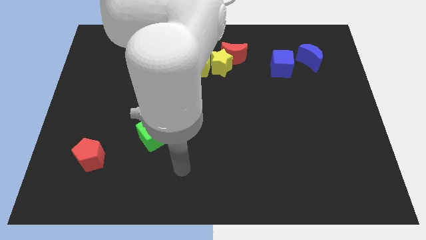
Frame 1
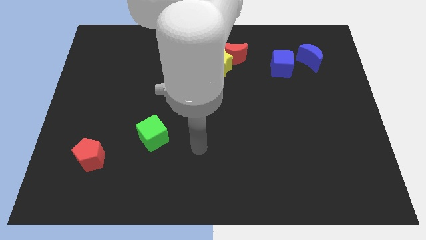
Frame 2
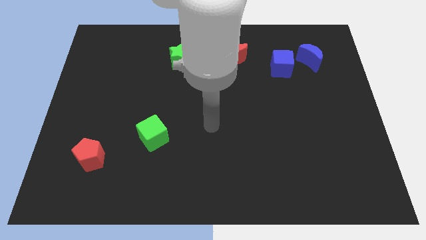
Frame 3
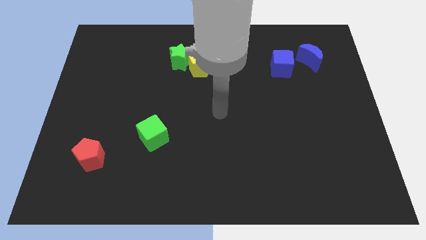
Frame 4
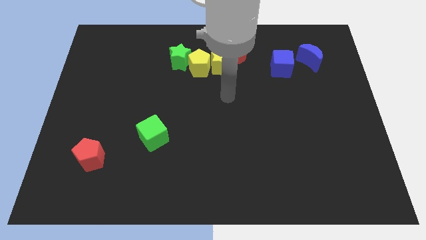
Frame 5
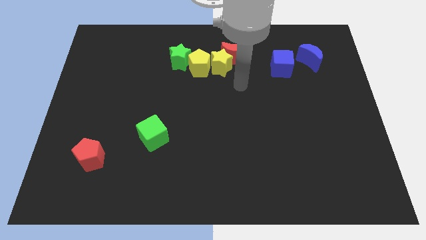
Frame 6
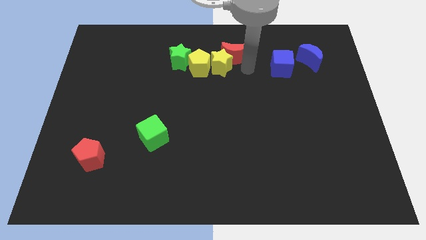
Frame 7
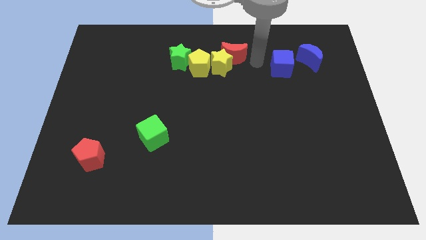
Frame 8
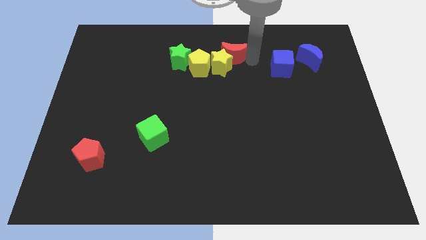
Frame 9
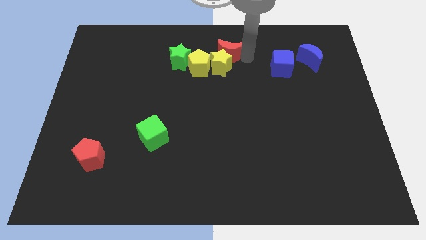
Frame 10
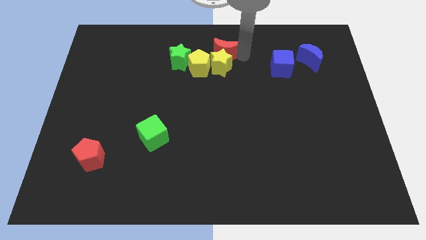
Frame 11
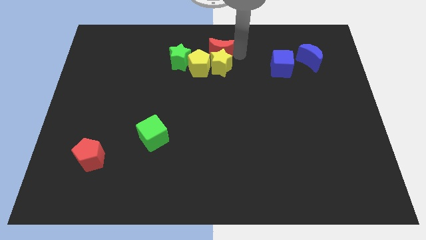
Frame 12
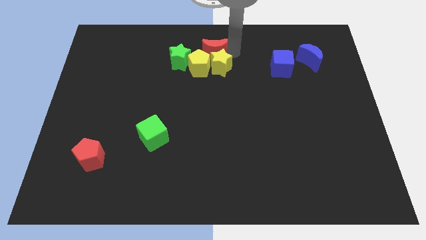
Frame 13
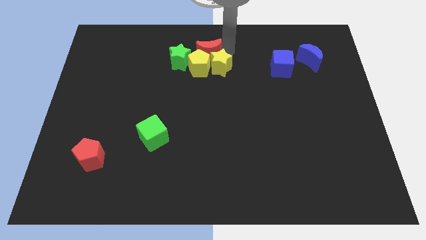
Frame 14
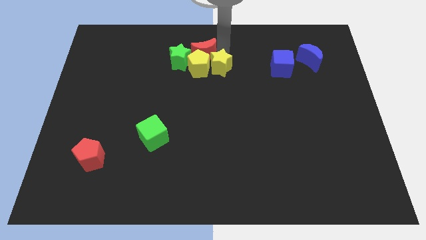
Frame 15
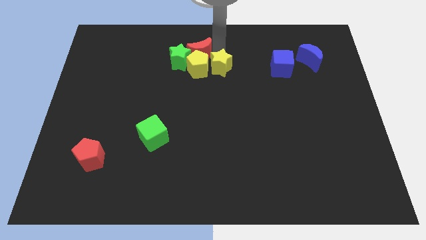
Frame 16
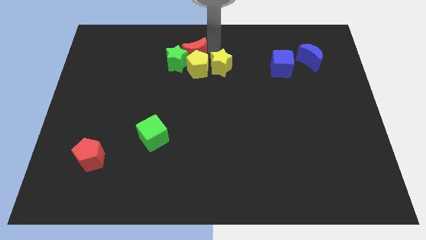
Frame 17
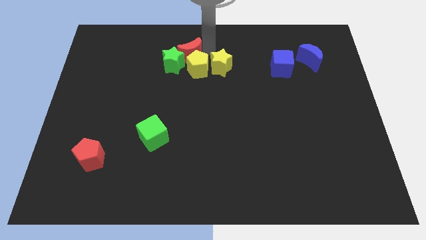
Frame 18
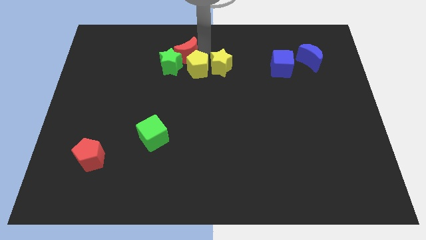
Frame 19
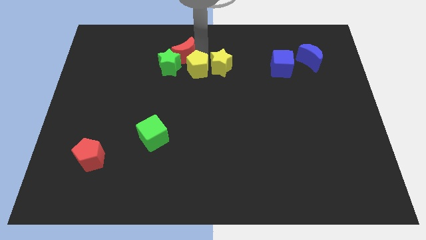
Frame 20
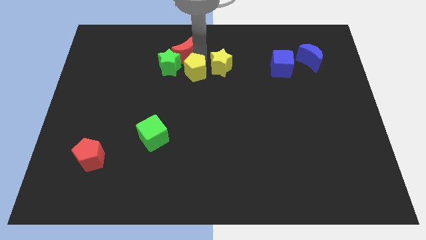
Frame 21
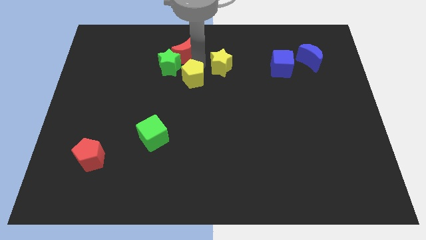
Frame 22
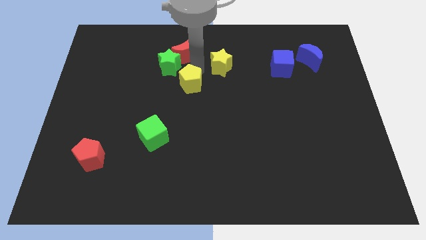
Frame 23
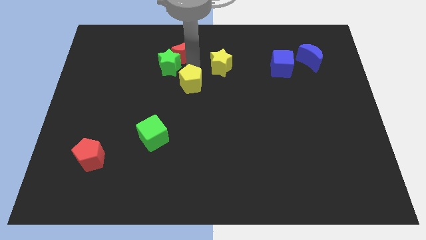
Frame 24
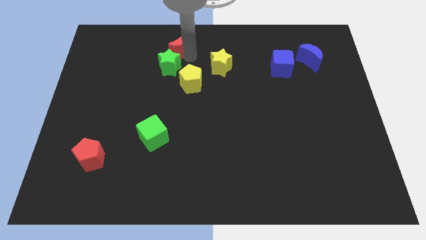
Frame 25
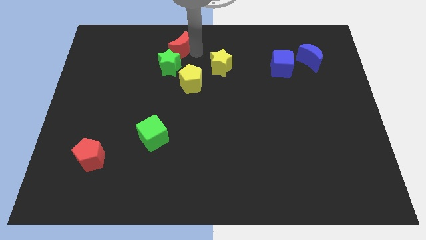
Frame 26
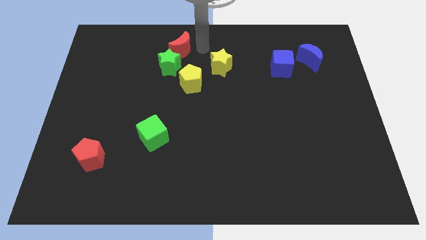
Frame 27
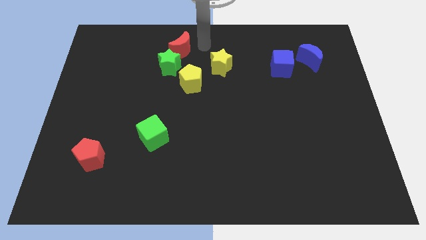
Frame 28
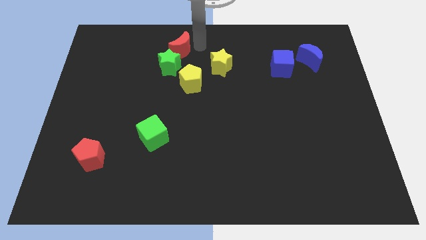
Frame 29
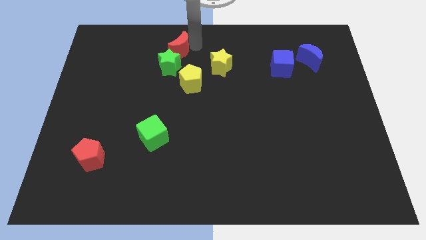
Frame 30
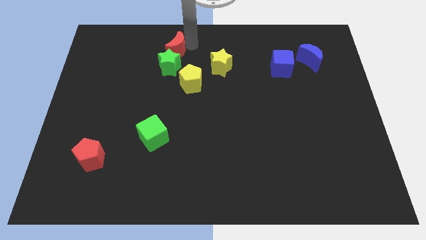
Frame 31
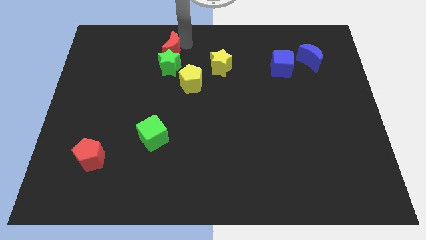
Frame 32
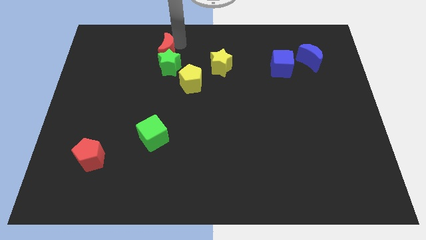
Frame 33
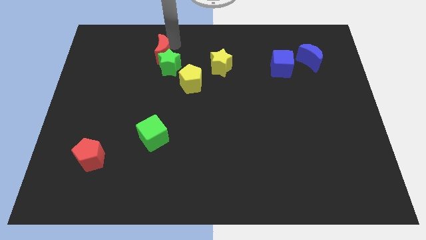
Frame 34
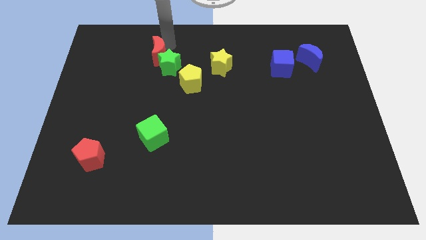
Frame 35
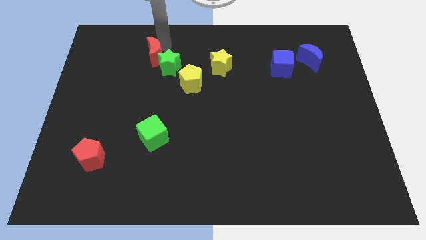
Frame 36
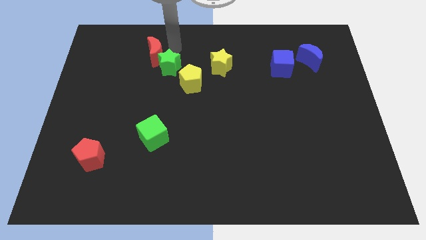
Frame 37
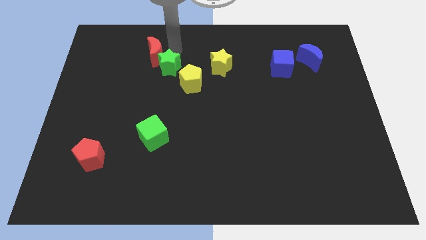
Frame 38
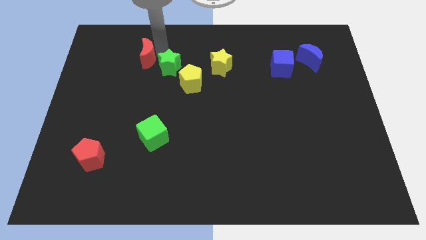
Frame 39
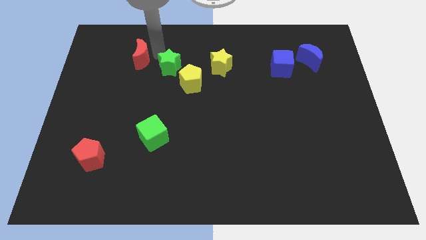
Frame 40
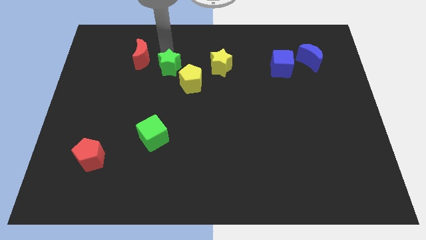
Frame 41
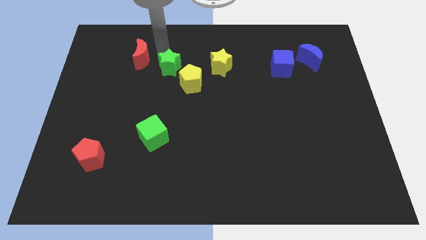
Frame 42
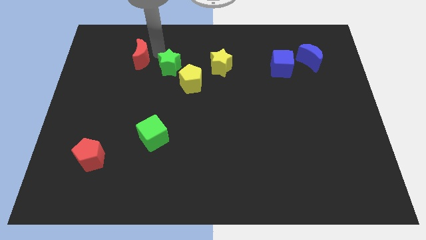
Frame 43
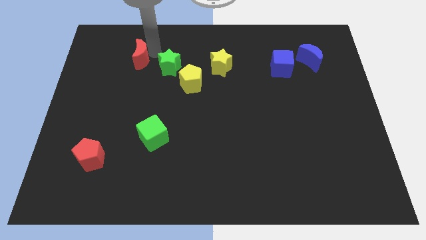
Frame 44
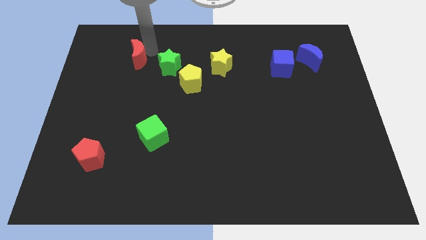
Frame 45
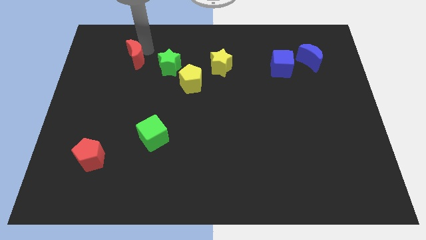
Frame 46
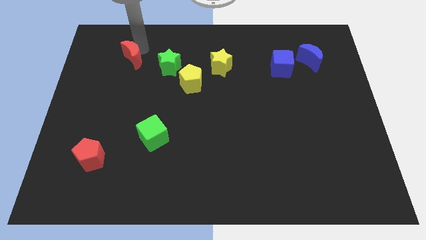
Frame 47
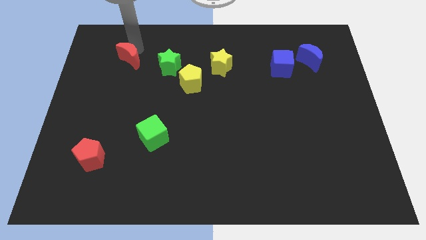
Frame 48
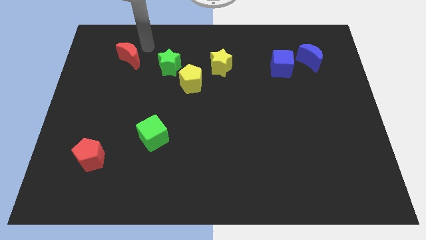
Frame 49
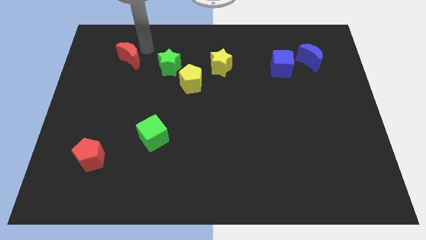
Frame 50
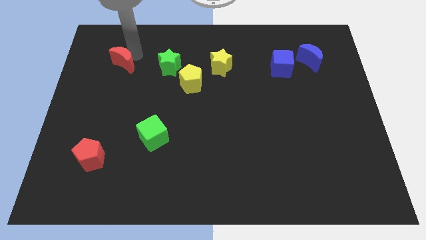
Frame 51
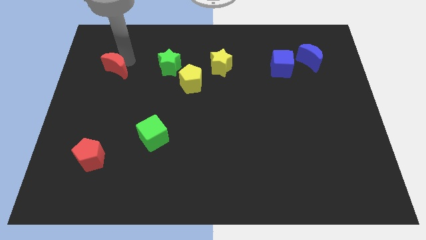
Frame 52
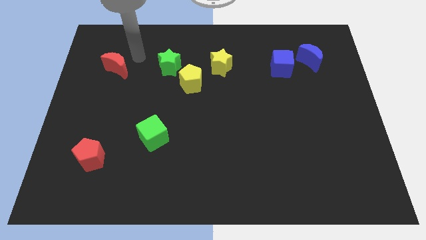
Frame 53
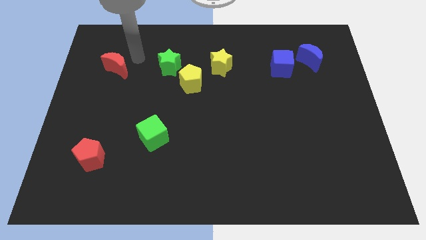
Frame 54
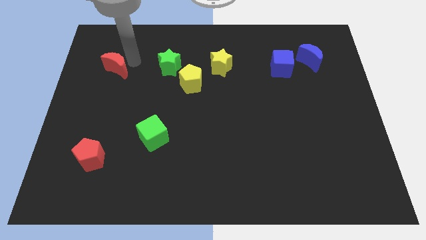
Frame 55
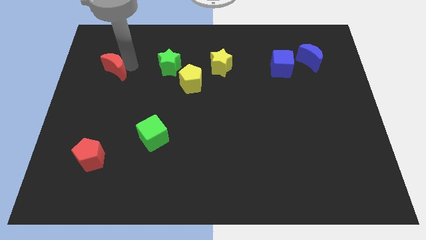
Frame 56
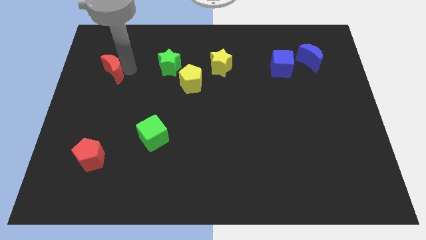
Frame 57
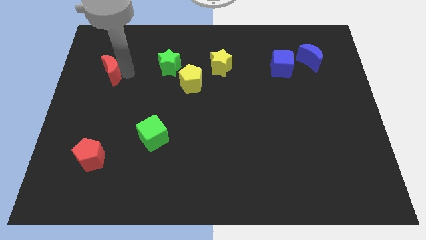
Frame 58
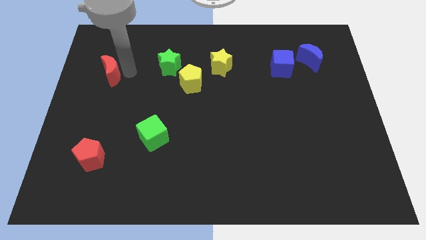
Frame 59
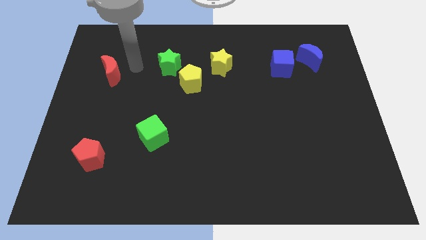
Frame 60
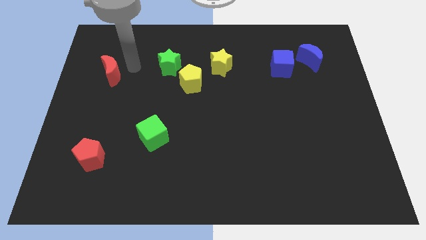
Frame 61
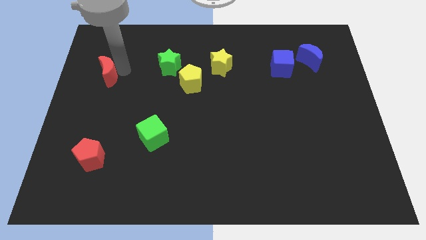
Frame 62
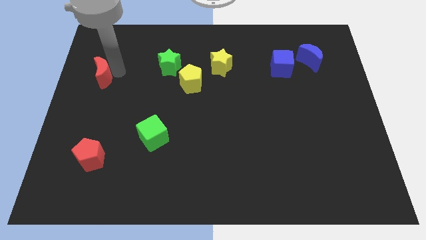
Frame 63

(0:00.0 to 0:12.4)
push the red moon to the center left

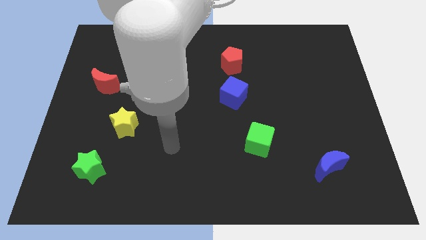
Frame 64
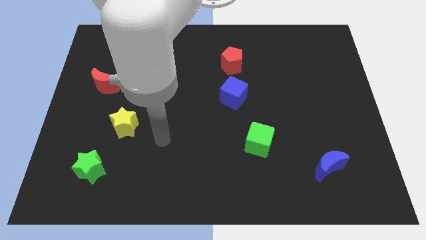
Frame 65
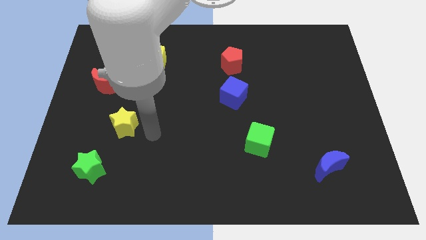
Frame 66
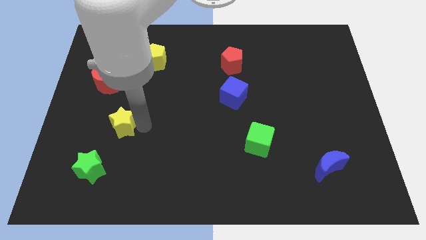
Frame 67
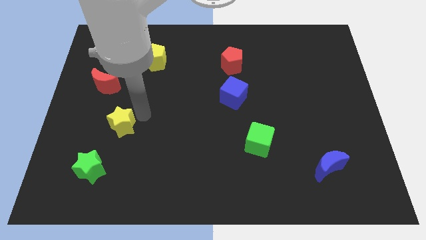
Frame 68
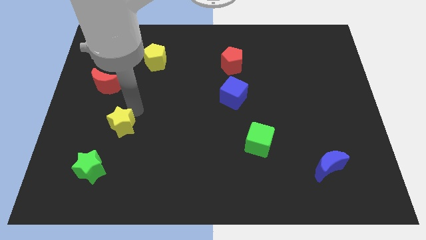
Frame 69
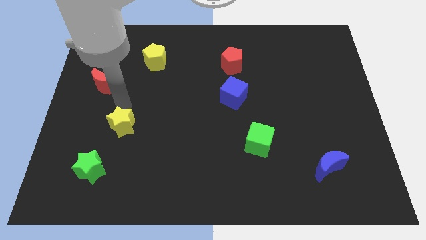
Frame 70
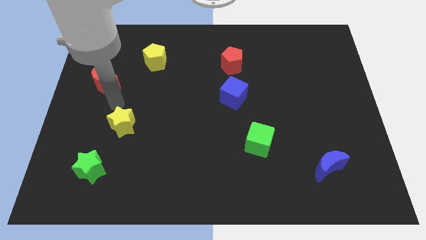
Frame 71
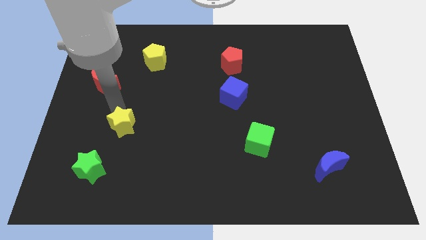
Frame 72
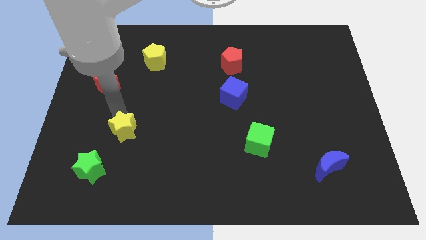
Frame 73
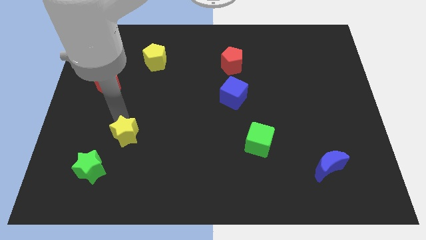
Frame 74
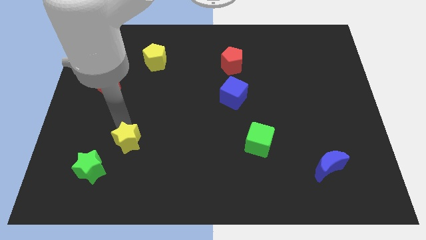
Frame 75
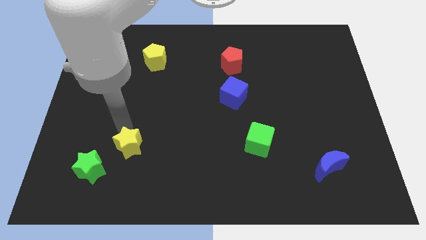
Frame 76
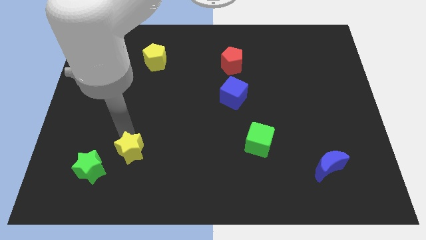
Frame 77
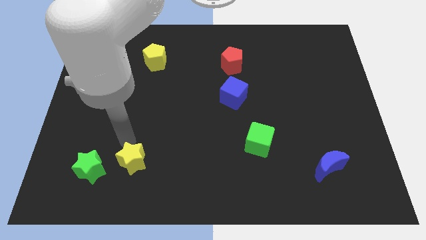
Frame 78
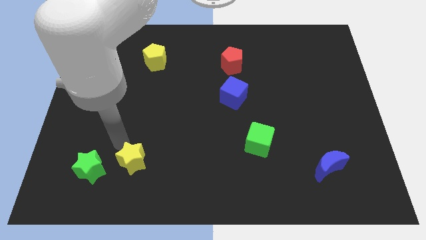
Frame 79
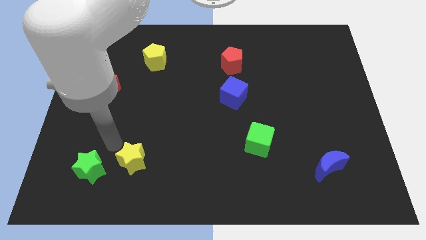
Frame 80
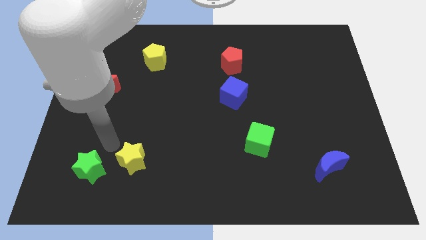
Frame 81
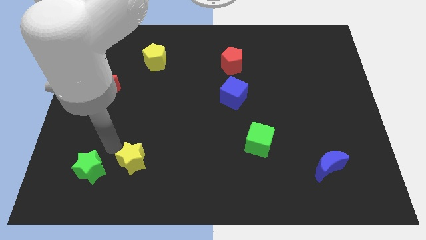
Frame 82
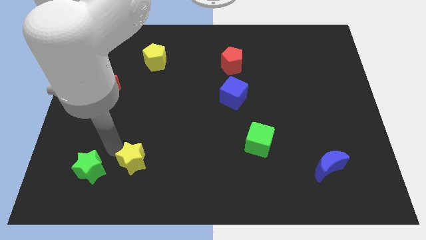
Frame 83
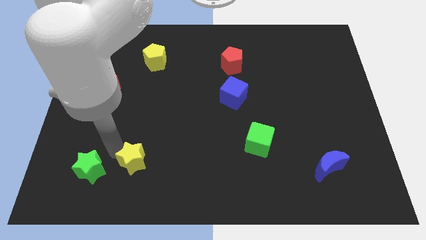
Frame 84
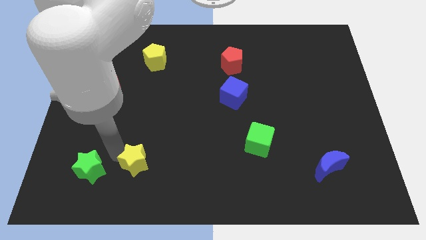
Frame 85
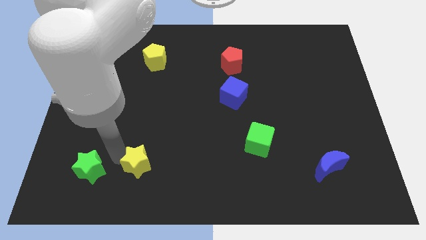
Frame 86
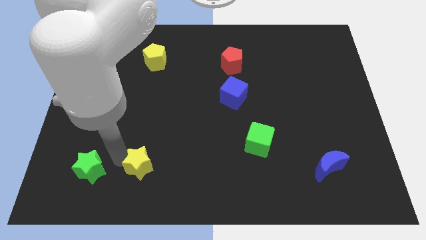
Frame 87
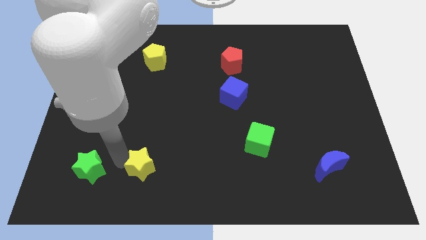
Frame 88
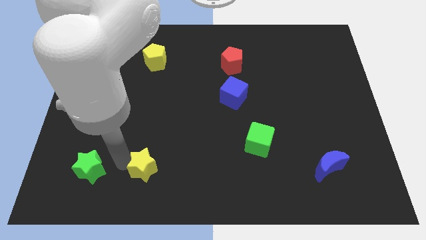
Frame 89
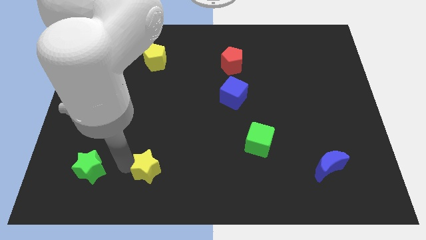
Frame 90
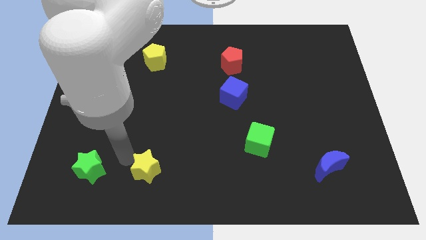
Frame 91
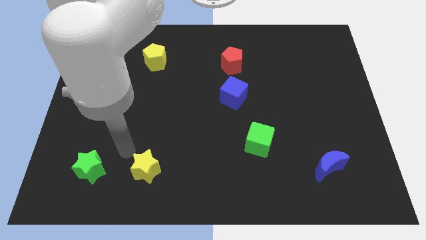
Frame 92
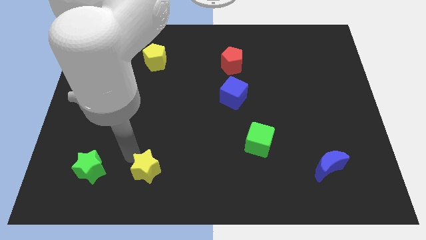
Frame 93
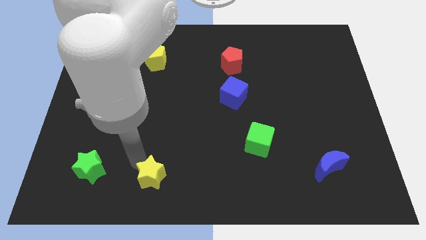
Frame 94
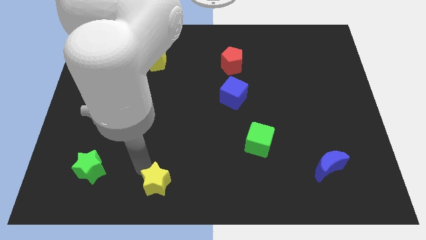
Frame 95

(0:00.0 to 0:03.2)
put the yellow star to the bottom side
